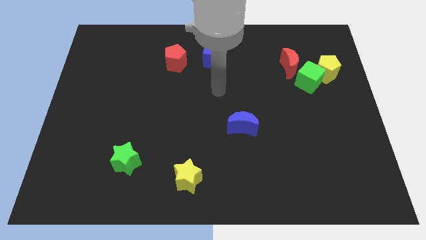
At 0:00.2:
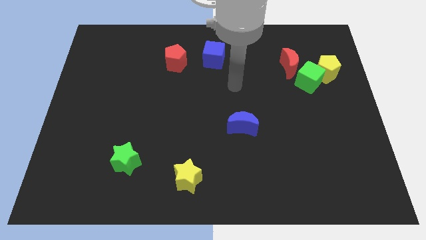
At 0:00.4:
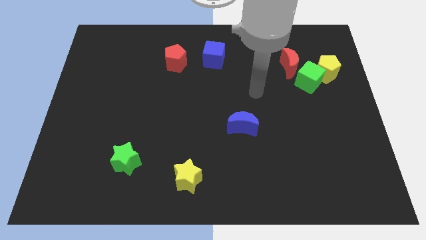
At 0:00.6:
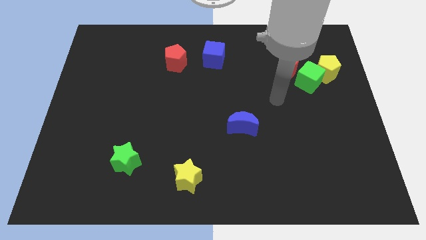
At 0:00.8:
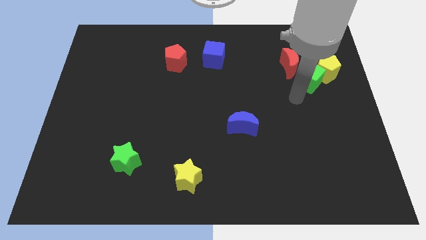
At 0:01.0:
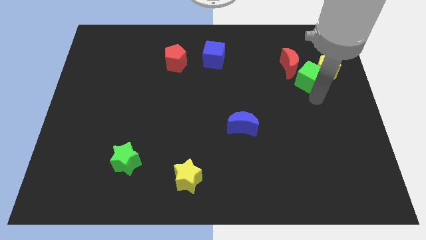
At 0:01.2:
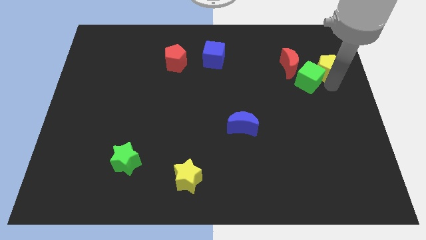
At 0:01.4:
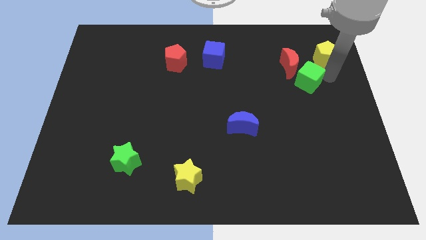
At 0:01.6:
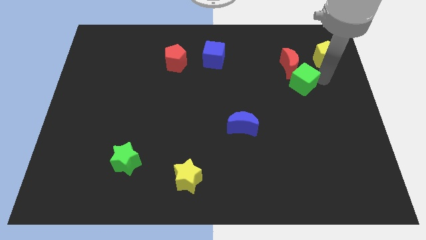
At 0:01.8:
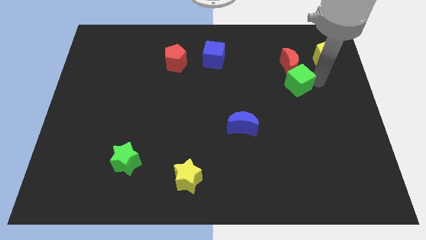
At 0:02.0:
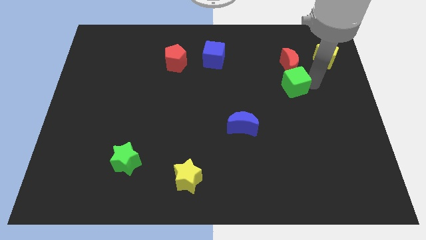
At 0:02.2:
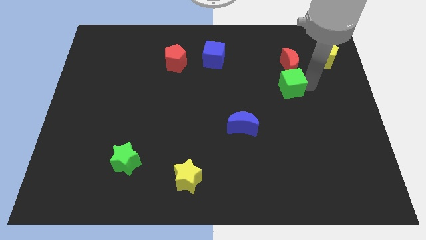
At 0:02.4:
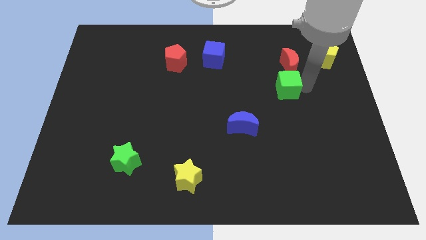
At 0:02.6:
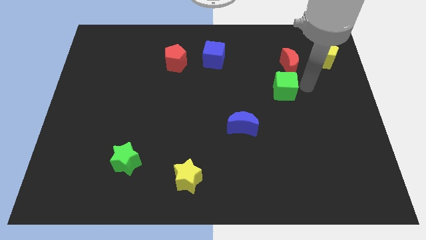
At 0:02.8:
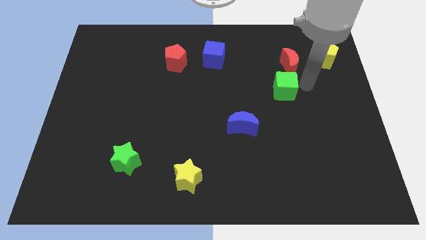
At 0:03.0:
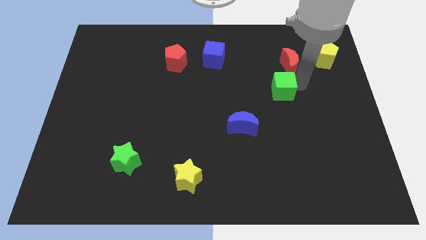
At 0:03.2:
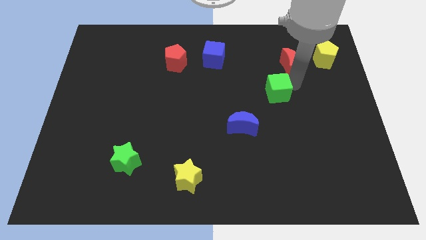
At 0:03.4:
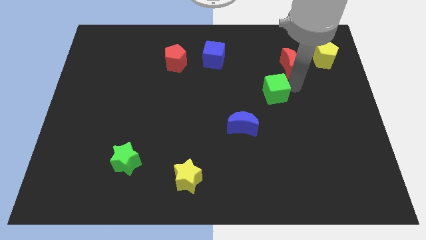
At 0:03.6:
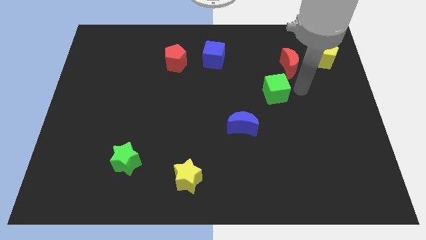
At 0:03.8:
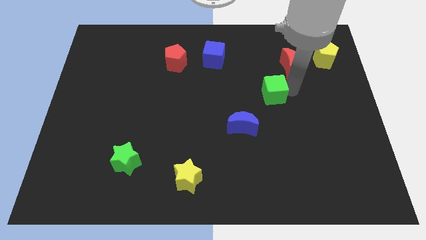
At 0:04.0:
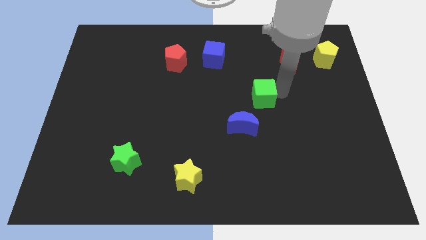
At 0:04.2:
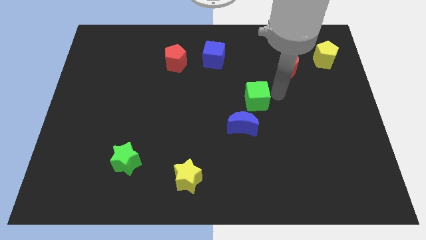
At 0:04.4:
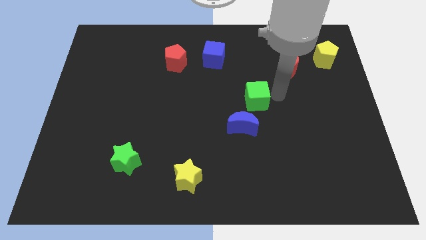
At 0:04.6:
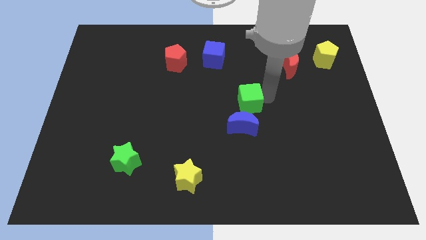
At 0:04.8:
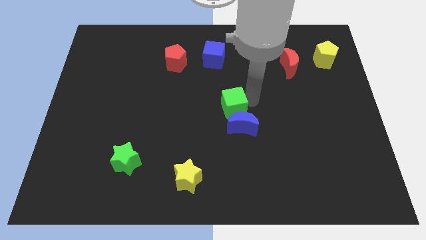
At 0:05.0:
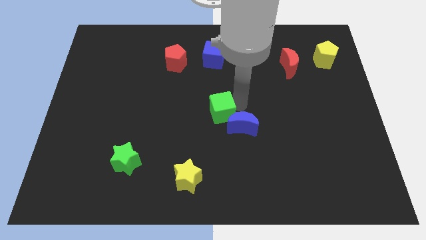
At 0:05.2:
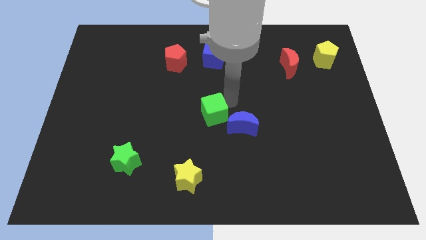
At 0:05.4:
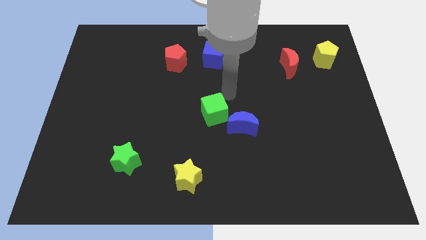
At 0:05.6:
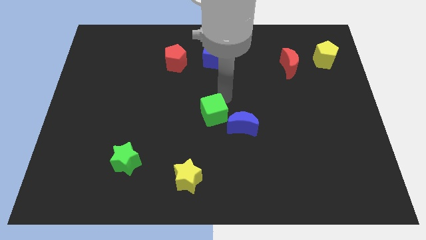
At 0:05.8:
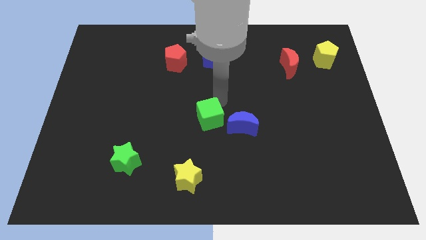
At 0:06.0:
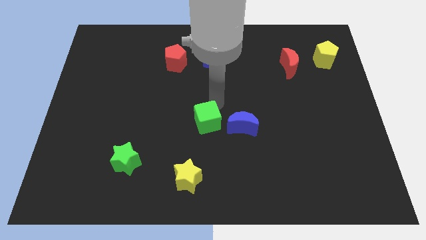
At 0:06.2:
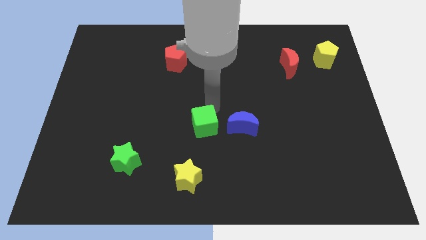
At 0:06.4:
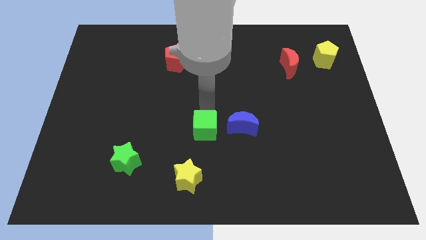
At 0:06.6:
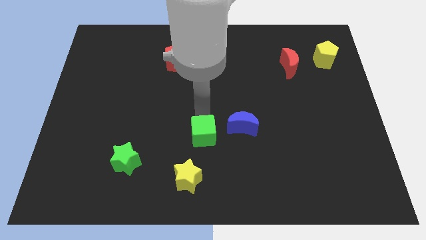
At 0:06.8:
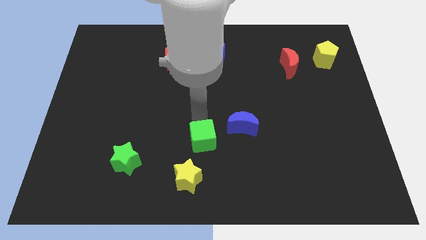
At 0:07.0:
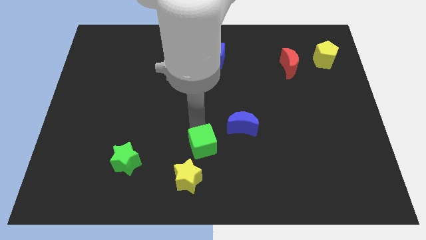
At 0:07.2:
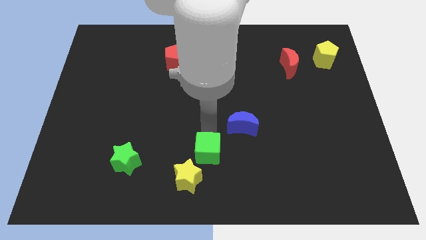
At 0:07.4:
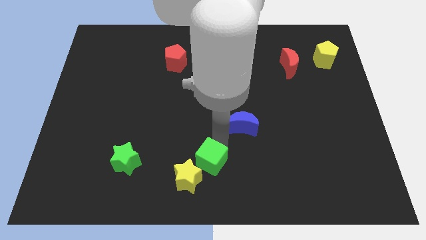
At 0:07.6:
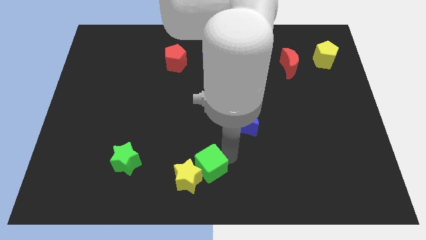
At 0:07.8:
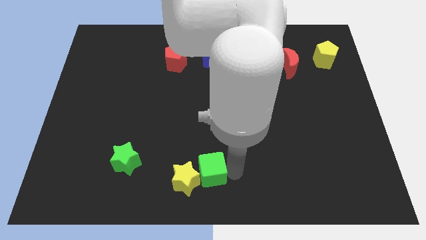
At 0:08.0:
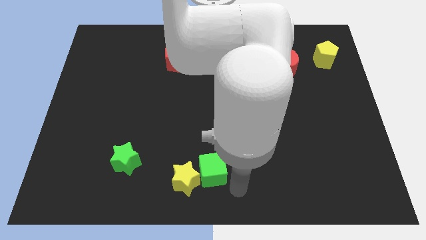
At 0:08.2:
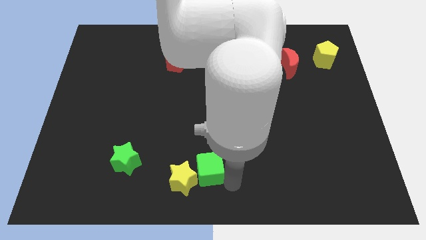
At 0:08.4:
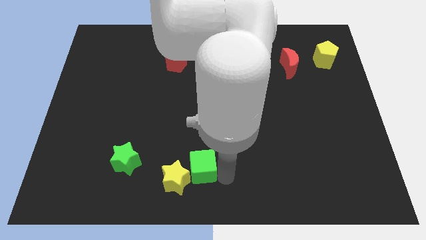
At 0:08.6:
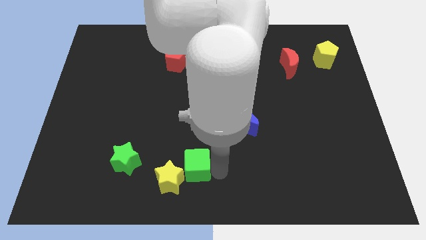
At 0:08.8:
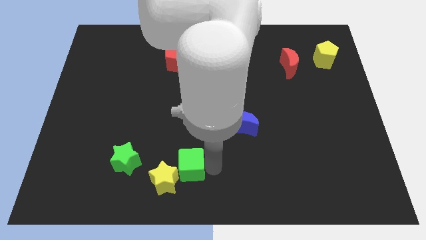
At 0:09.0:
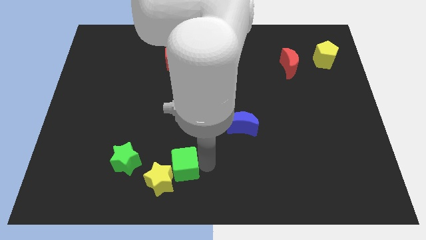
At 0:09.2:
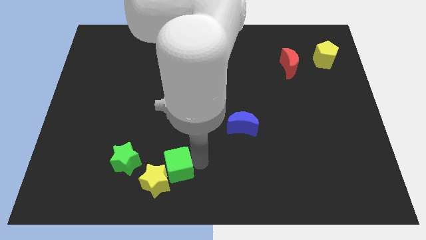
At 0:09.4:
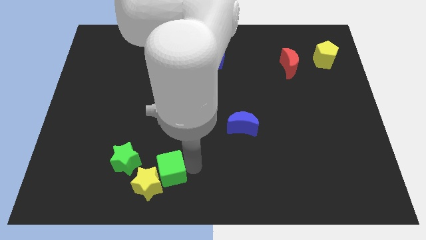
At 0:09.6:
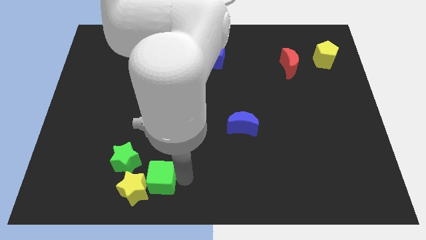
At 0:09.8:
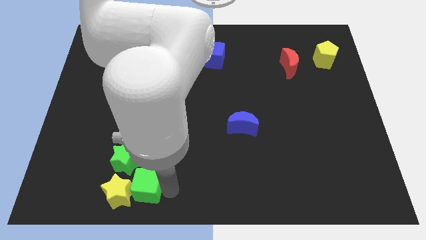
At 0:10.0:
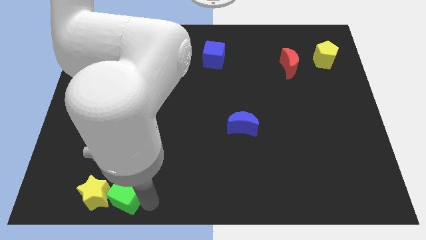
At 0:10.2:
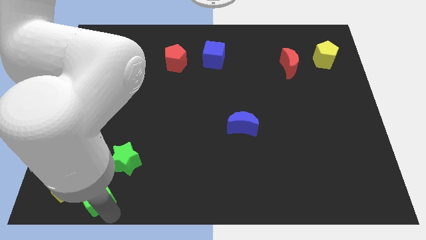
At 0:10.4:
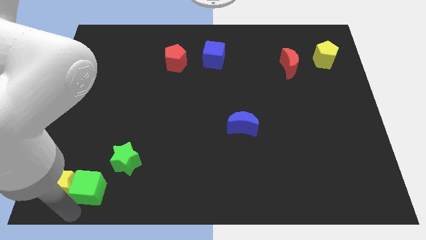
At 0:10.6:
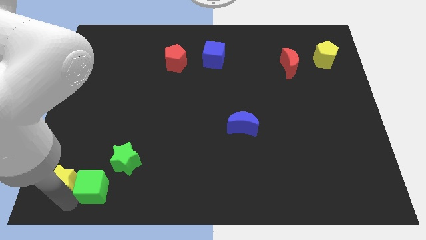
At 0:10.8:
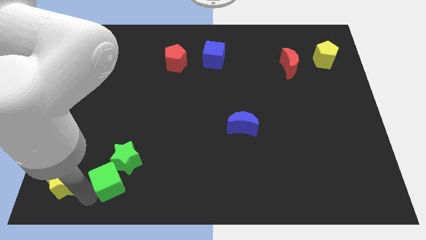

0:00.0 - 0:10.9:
slide the green cube towards the green star

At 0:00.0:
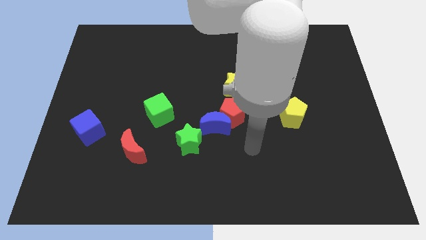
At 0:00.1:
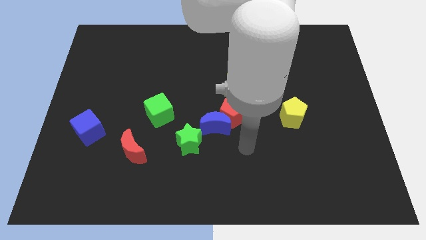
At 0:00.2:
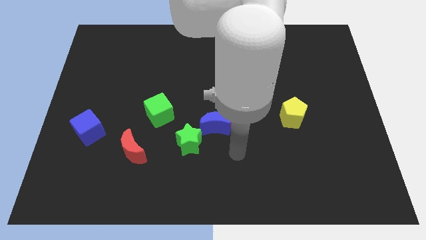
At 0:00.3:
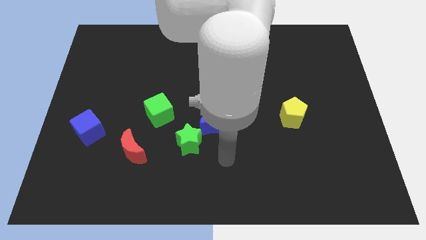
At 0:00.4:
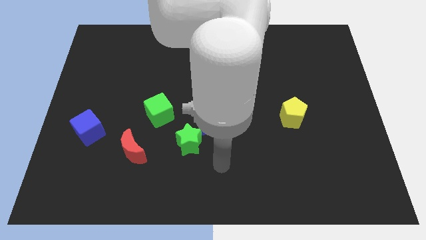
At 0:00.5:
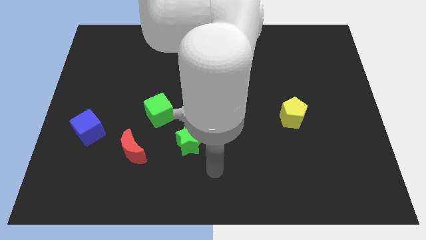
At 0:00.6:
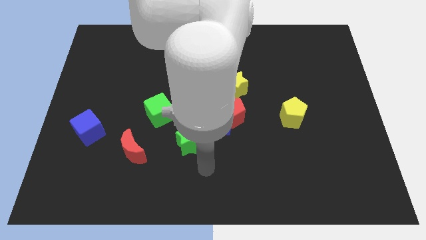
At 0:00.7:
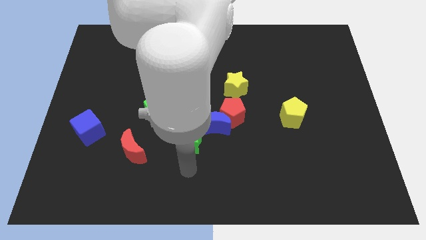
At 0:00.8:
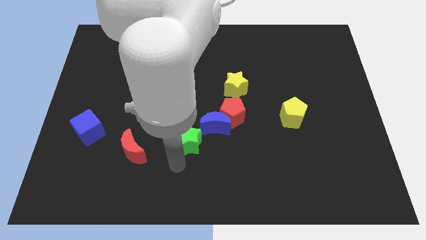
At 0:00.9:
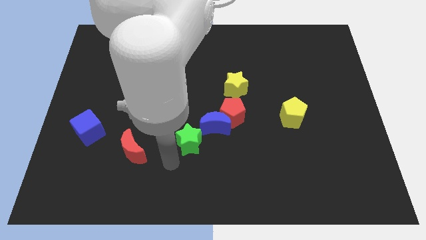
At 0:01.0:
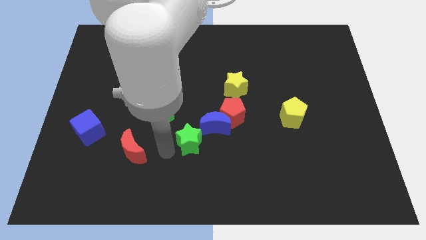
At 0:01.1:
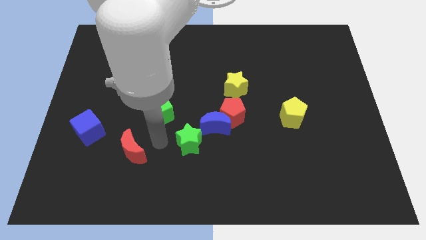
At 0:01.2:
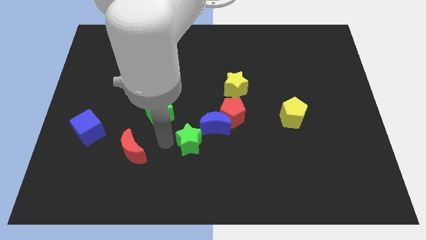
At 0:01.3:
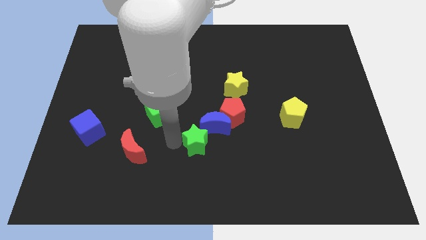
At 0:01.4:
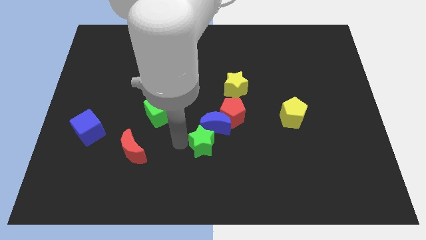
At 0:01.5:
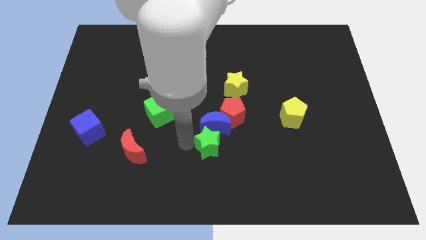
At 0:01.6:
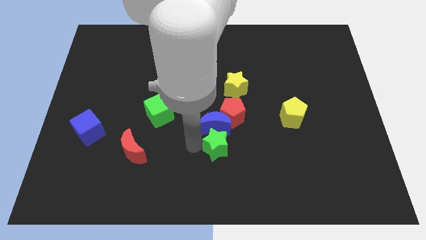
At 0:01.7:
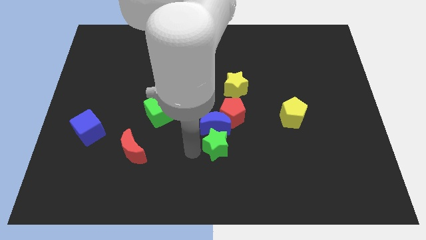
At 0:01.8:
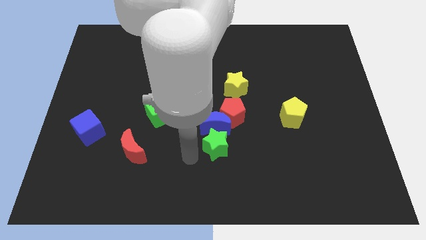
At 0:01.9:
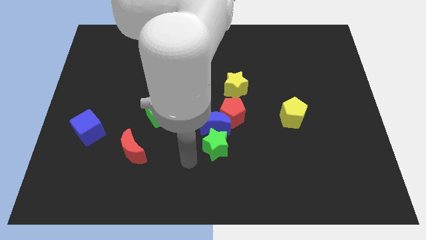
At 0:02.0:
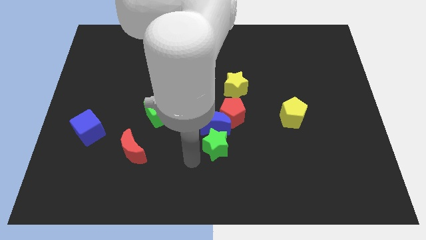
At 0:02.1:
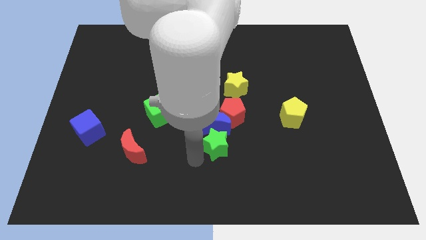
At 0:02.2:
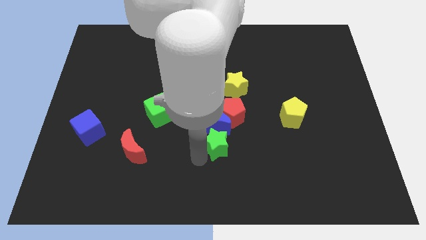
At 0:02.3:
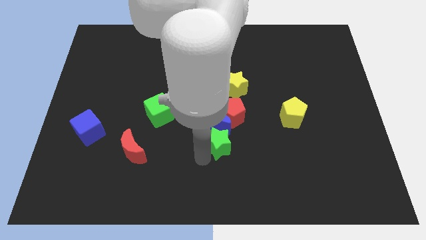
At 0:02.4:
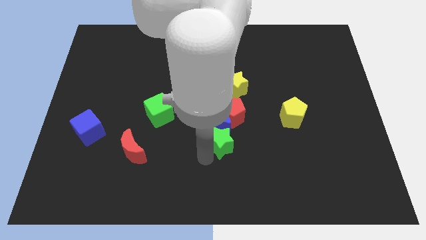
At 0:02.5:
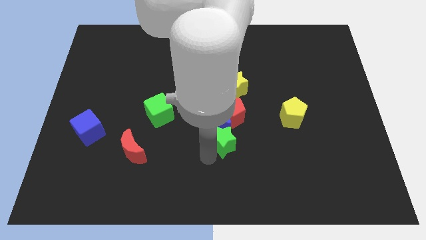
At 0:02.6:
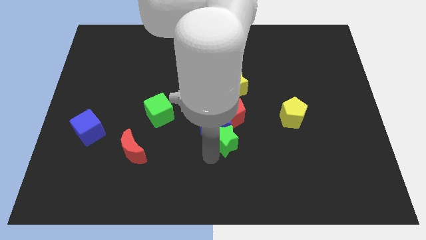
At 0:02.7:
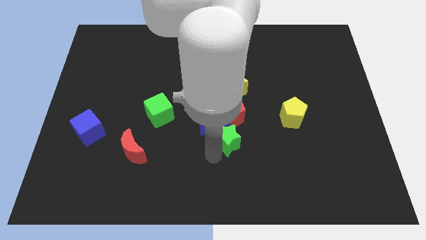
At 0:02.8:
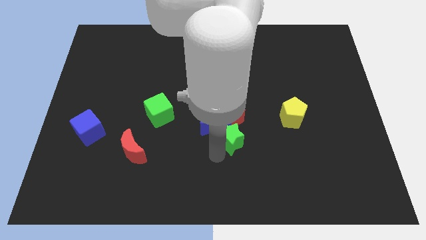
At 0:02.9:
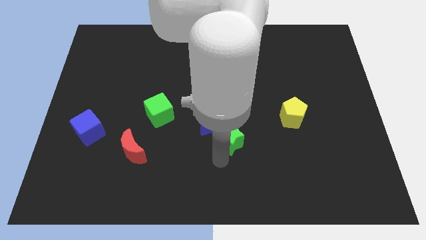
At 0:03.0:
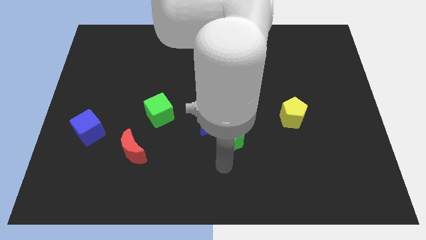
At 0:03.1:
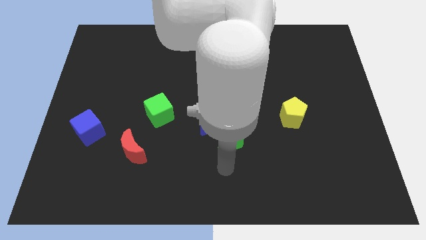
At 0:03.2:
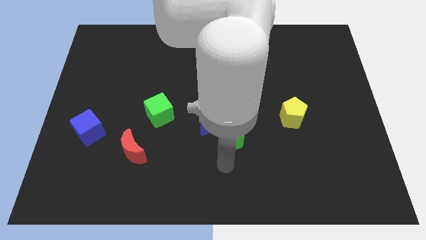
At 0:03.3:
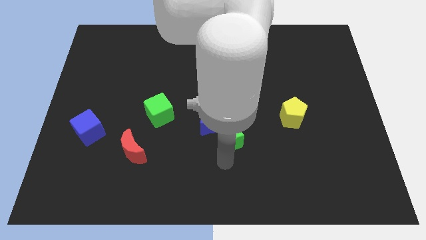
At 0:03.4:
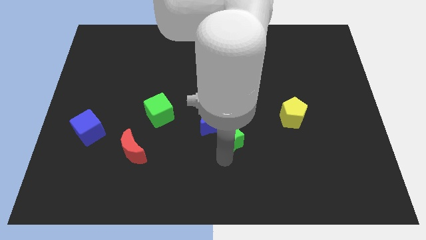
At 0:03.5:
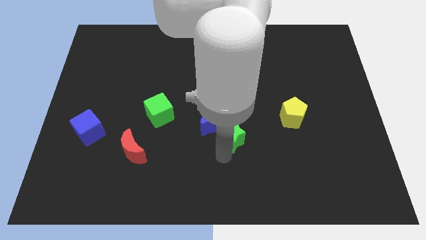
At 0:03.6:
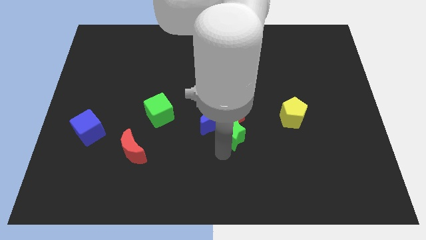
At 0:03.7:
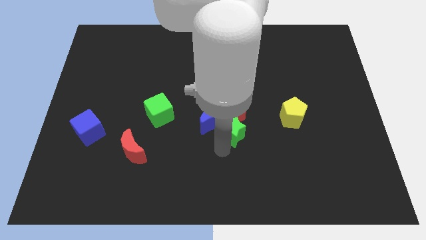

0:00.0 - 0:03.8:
push the green star towards the red pentagon
